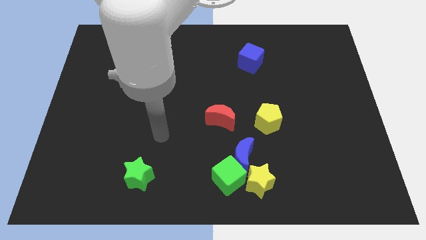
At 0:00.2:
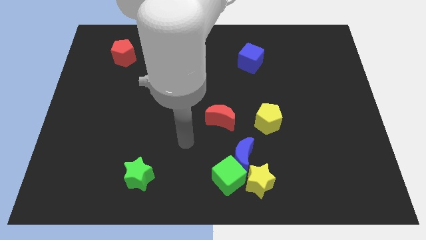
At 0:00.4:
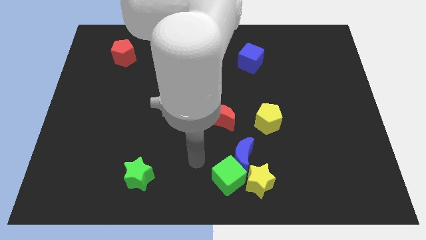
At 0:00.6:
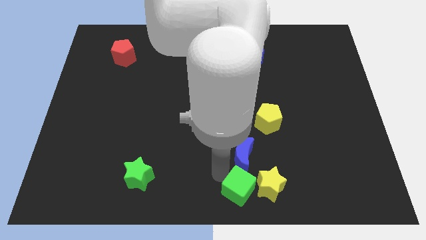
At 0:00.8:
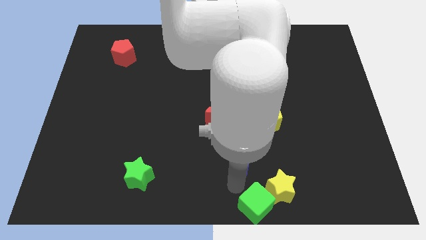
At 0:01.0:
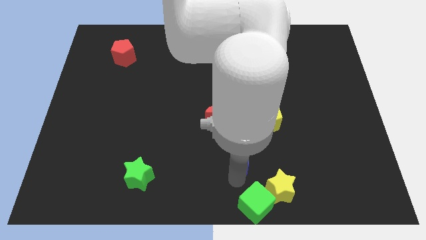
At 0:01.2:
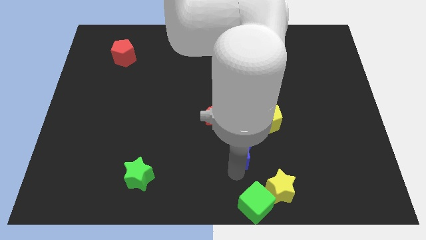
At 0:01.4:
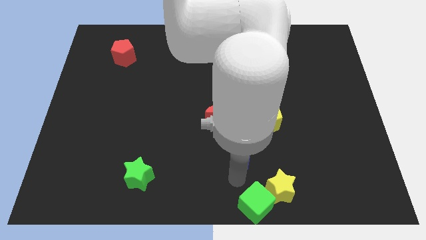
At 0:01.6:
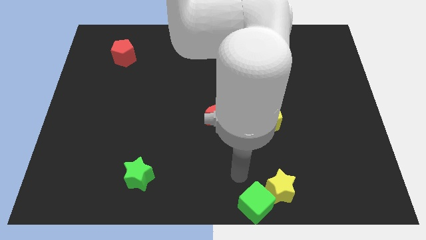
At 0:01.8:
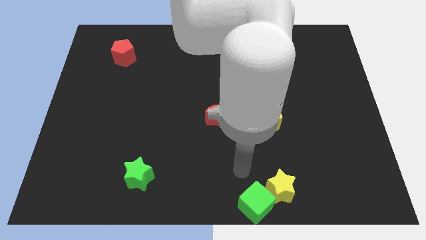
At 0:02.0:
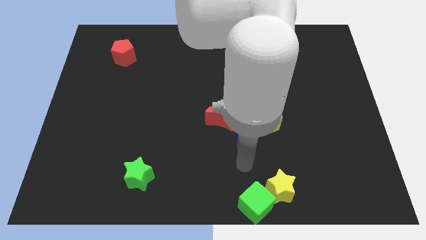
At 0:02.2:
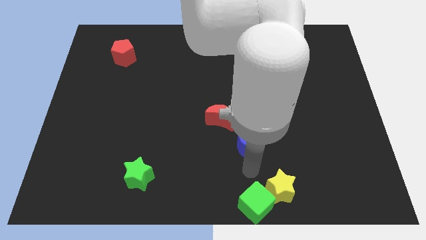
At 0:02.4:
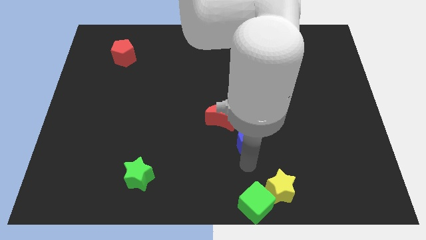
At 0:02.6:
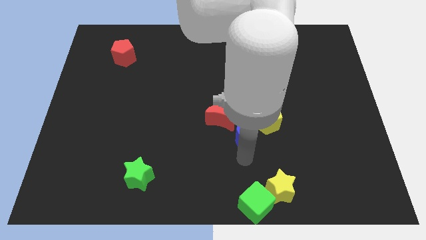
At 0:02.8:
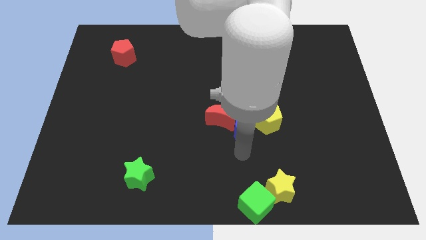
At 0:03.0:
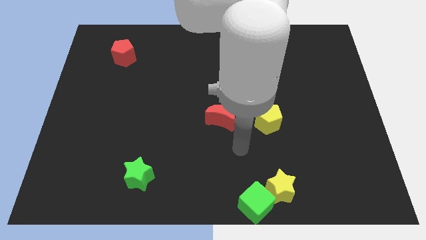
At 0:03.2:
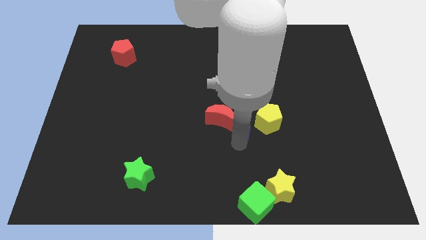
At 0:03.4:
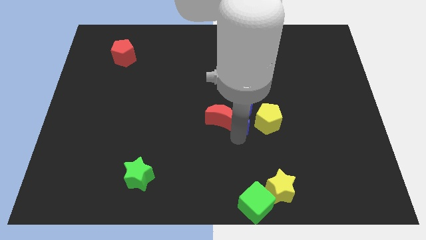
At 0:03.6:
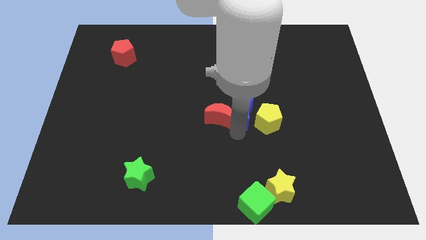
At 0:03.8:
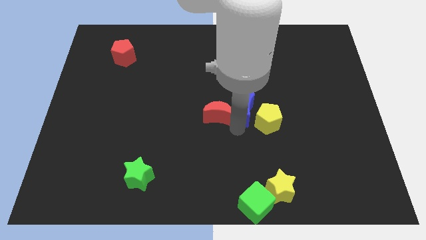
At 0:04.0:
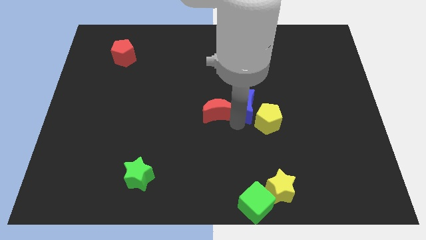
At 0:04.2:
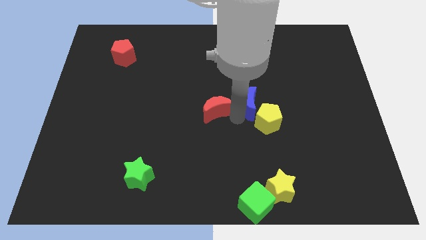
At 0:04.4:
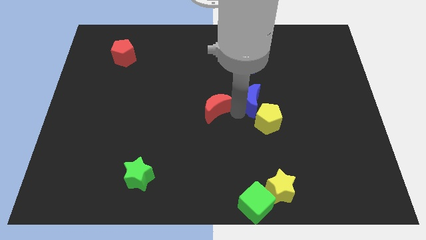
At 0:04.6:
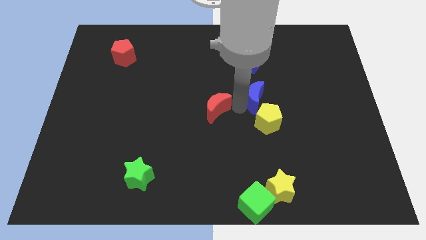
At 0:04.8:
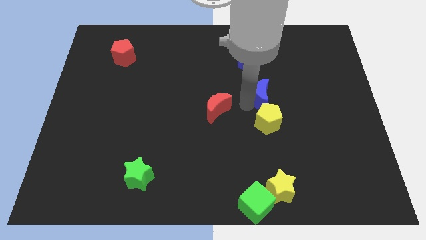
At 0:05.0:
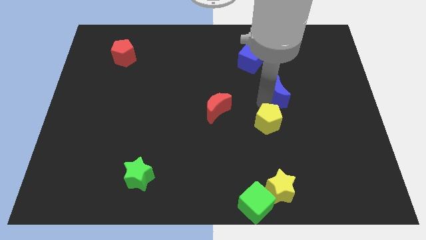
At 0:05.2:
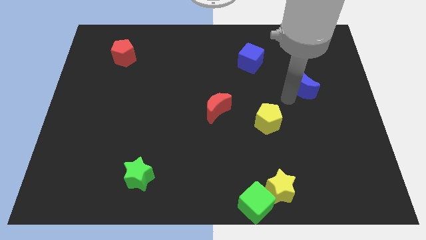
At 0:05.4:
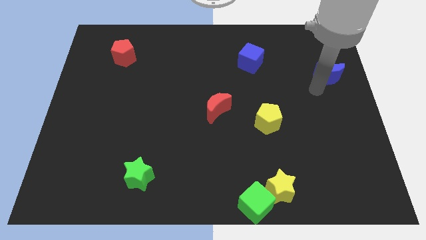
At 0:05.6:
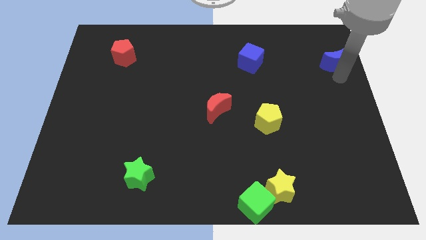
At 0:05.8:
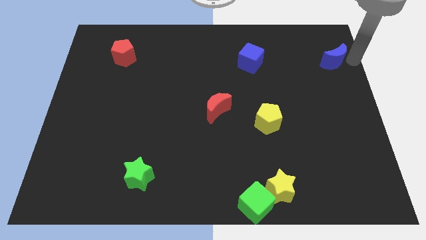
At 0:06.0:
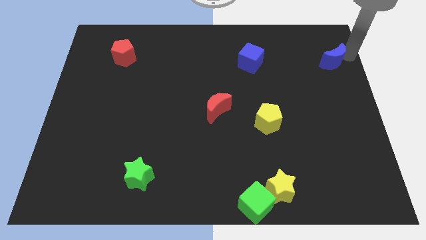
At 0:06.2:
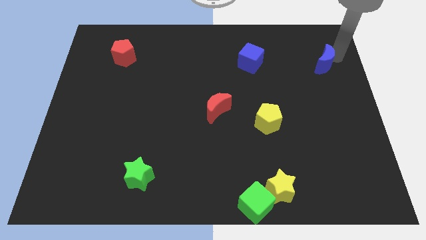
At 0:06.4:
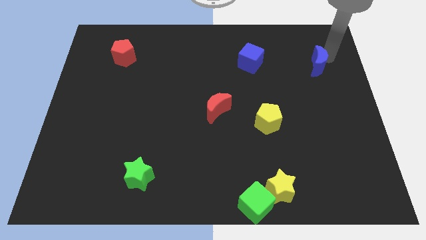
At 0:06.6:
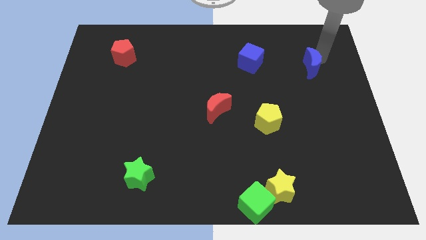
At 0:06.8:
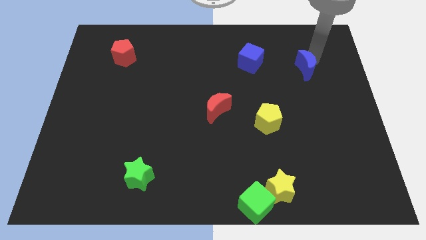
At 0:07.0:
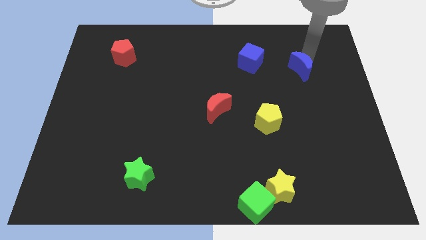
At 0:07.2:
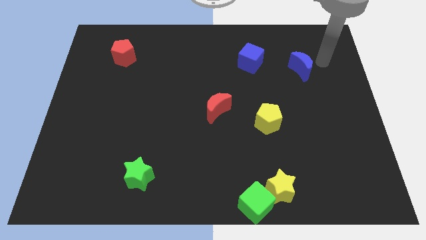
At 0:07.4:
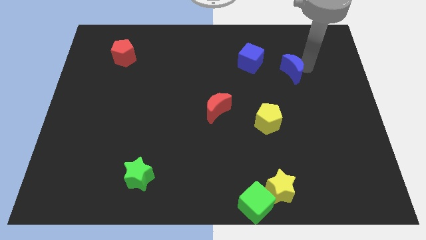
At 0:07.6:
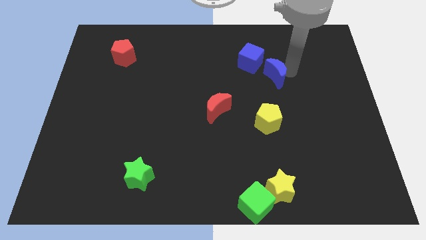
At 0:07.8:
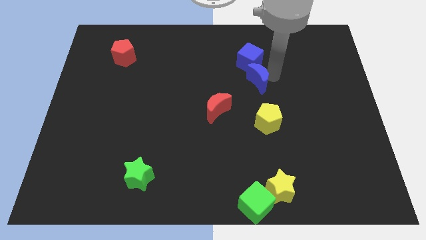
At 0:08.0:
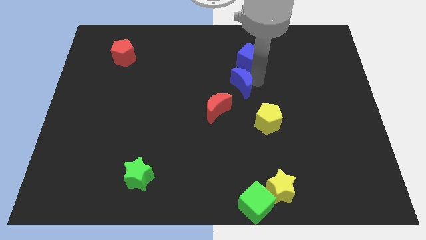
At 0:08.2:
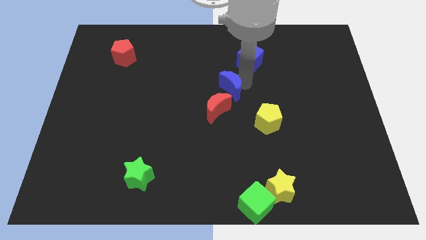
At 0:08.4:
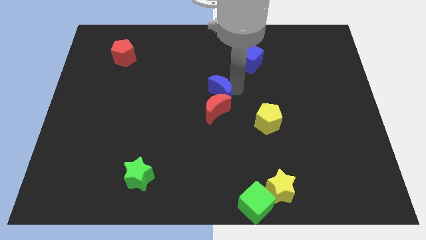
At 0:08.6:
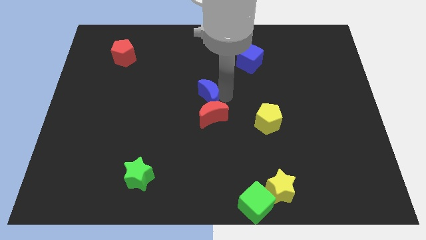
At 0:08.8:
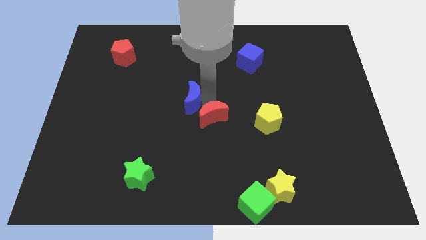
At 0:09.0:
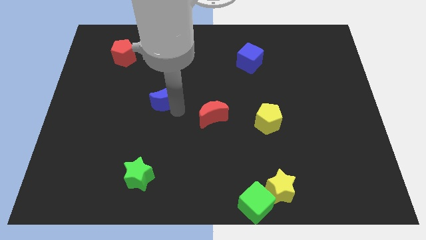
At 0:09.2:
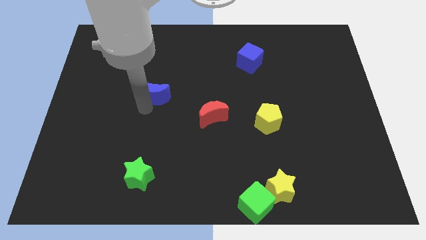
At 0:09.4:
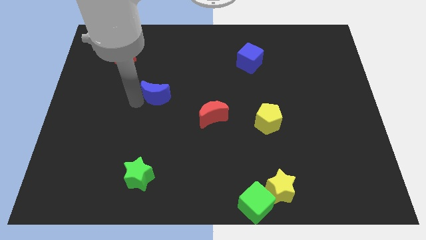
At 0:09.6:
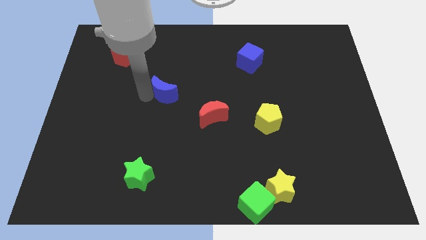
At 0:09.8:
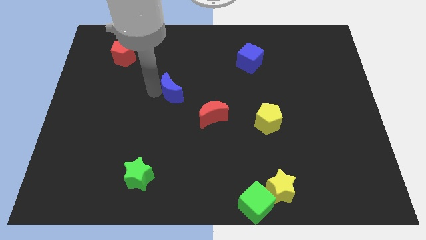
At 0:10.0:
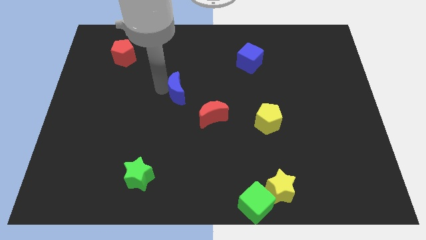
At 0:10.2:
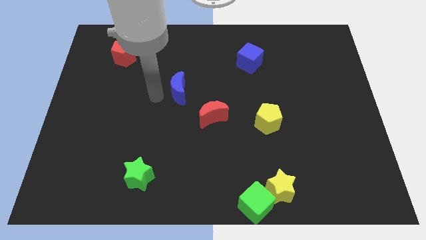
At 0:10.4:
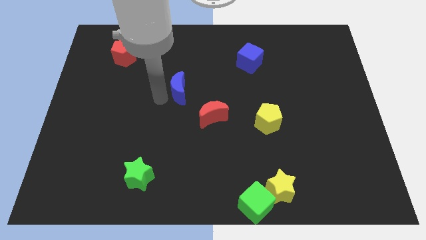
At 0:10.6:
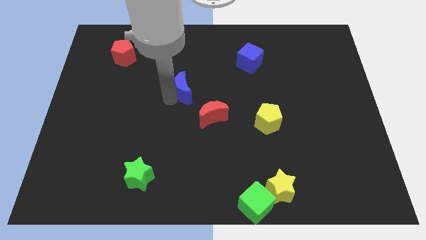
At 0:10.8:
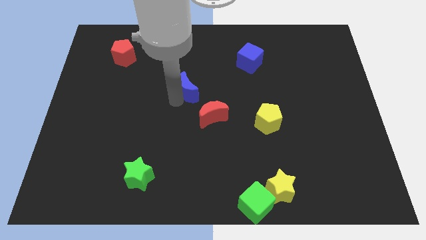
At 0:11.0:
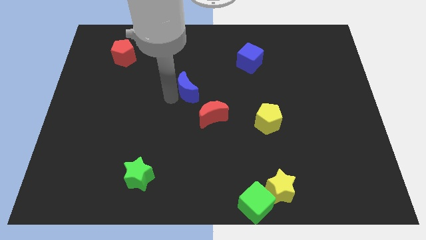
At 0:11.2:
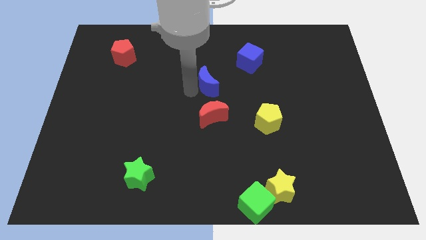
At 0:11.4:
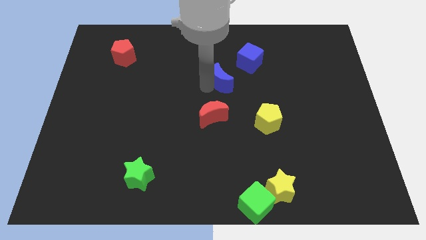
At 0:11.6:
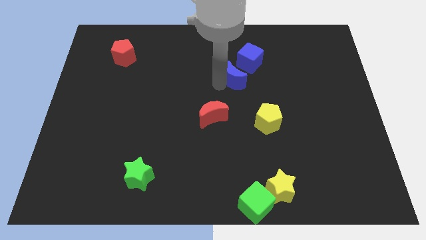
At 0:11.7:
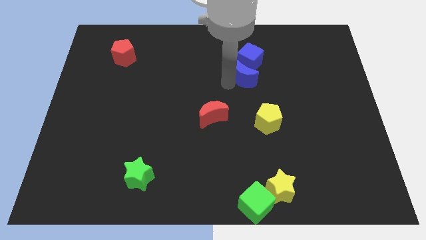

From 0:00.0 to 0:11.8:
push the blue moon towards the blue cube

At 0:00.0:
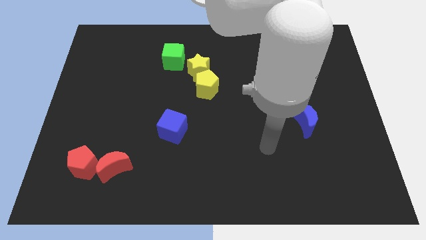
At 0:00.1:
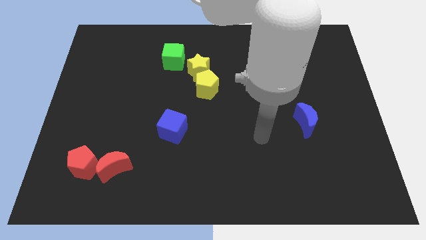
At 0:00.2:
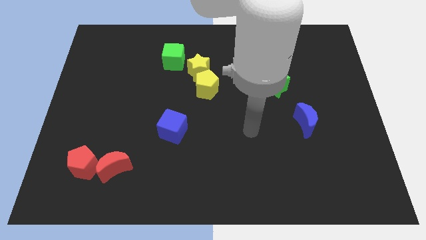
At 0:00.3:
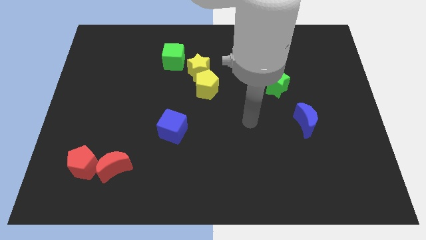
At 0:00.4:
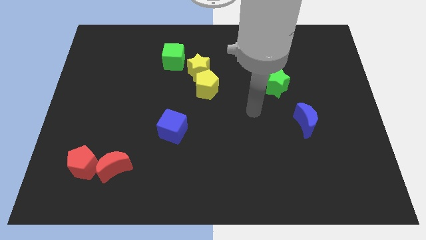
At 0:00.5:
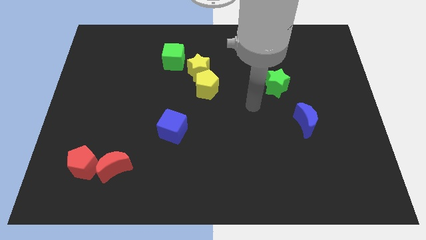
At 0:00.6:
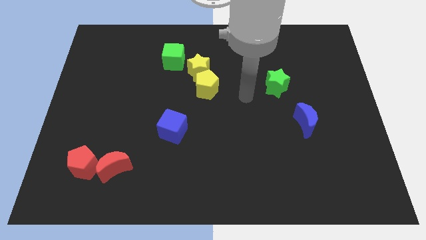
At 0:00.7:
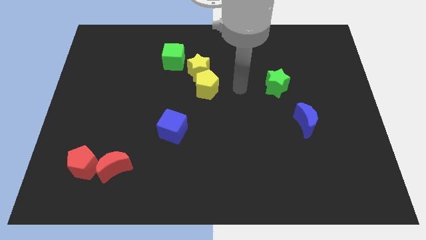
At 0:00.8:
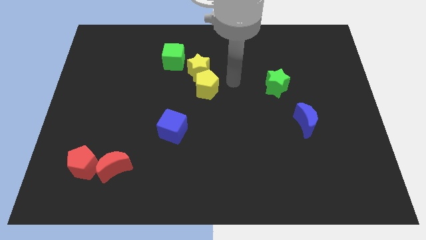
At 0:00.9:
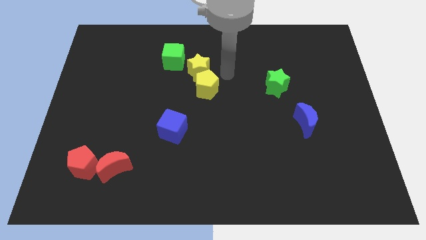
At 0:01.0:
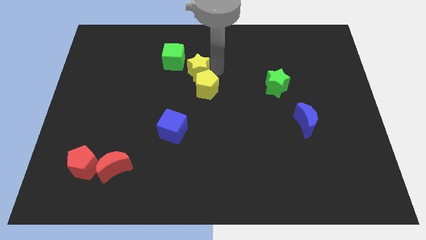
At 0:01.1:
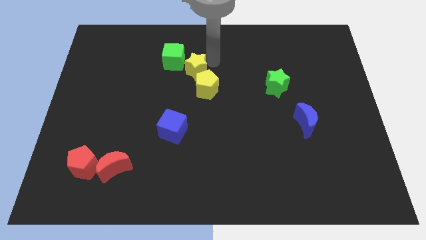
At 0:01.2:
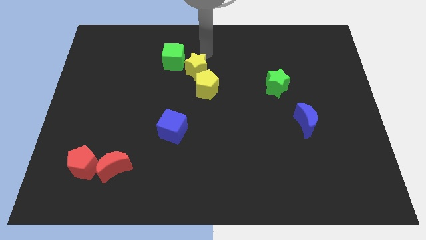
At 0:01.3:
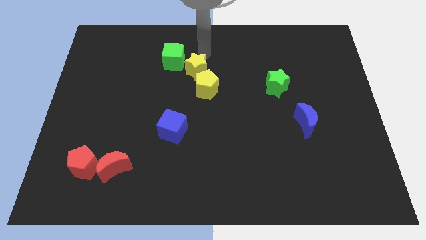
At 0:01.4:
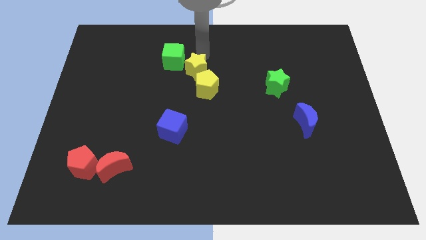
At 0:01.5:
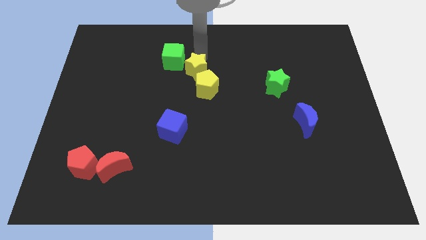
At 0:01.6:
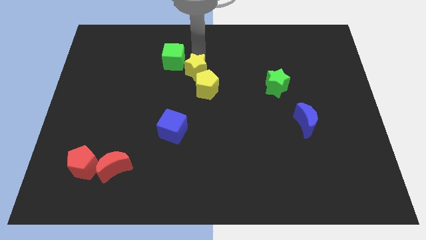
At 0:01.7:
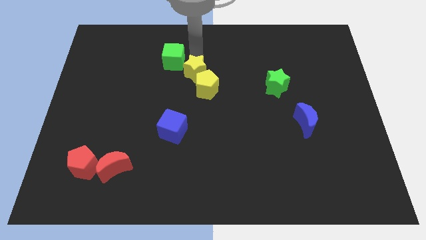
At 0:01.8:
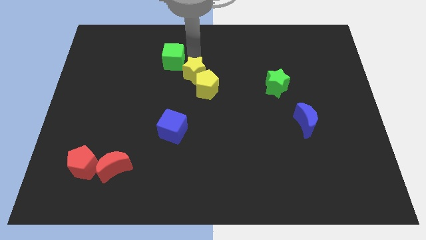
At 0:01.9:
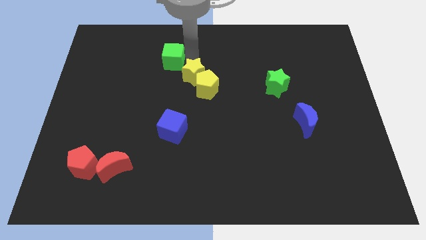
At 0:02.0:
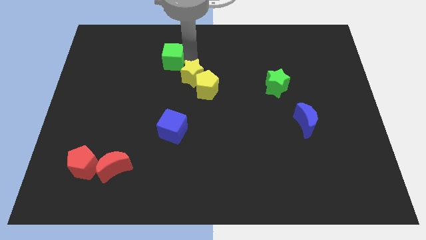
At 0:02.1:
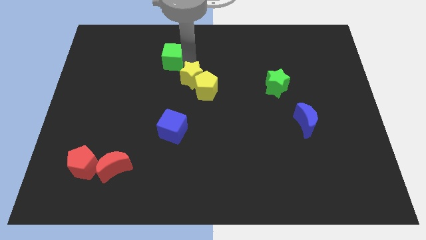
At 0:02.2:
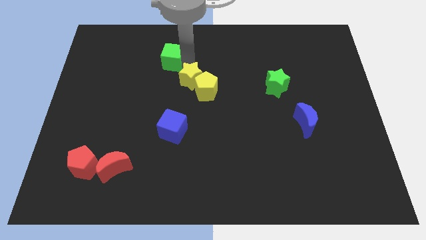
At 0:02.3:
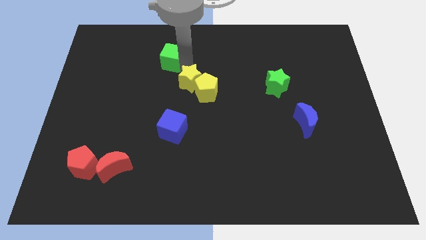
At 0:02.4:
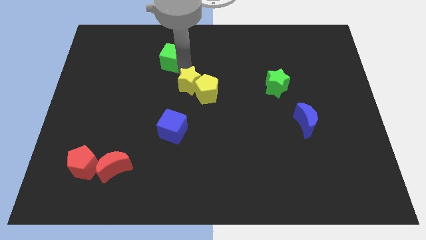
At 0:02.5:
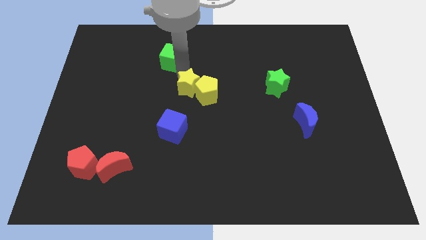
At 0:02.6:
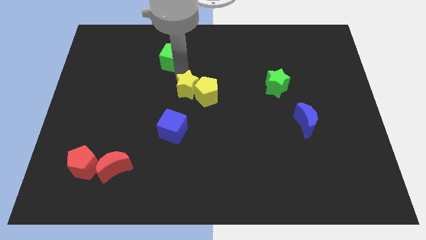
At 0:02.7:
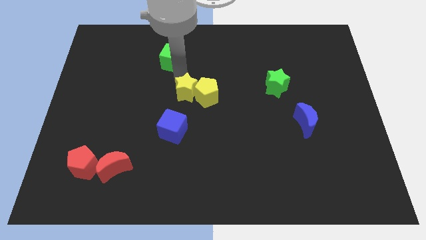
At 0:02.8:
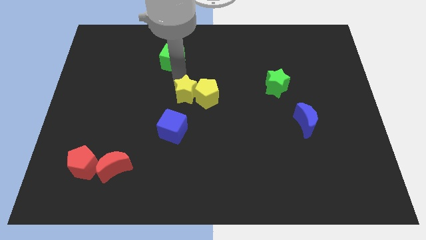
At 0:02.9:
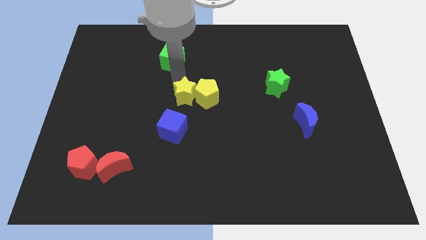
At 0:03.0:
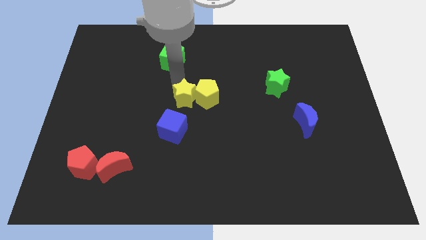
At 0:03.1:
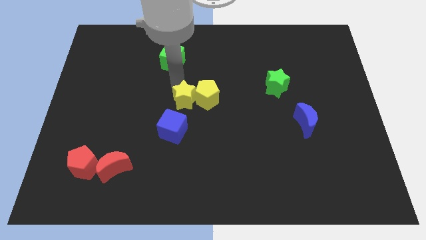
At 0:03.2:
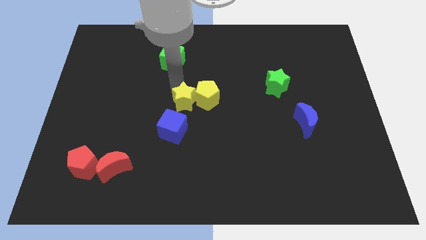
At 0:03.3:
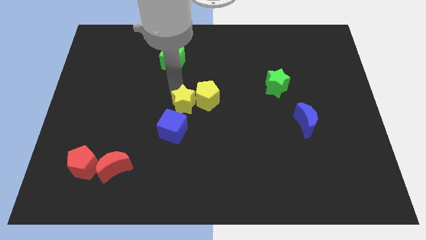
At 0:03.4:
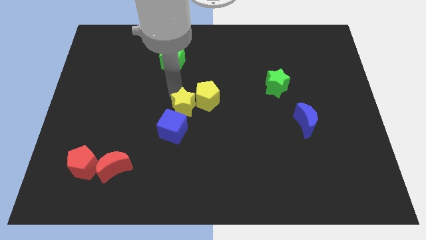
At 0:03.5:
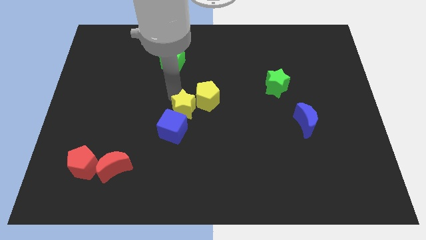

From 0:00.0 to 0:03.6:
put the yellow star next to the blue cube
